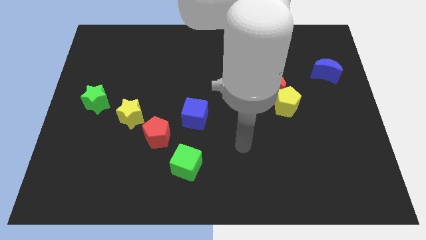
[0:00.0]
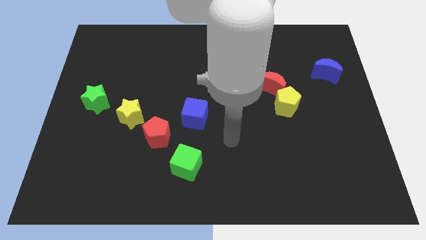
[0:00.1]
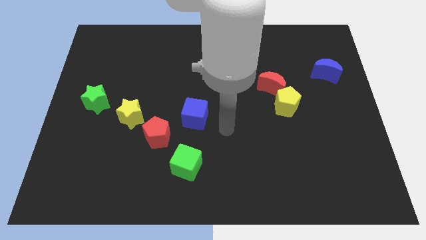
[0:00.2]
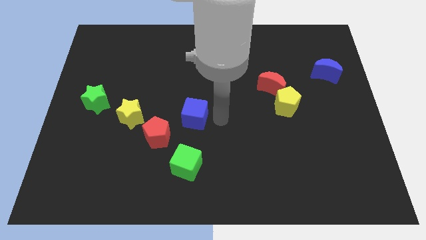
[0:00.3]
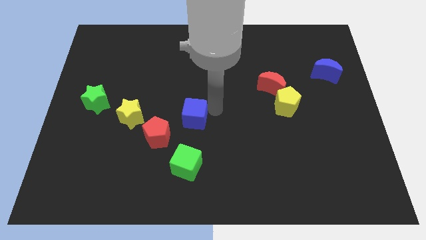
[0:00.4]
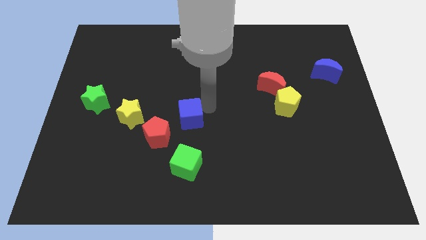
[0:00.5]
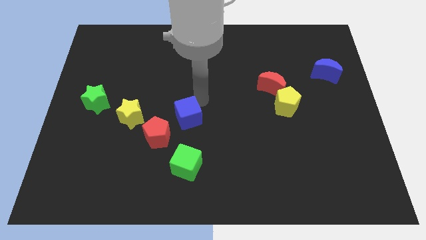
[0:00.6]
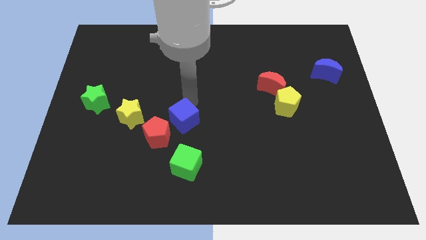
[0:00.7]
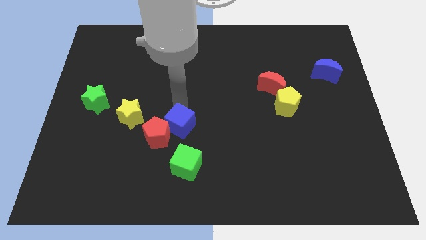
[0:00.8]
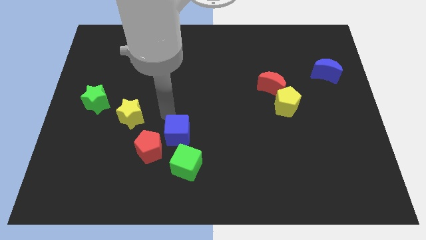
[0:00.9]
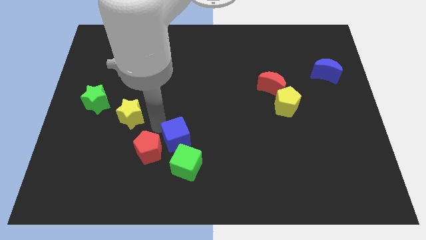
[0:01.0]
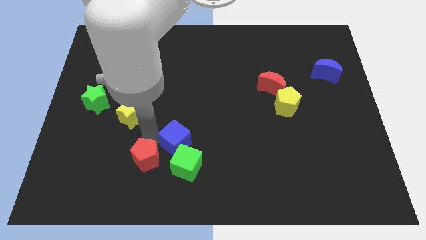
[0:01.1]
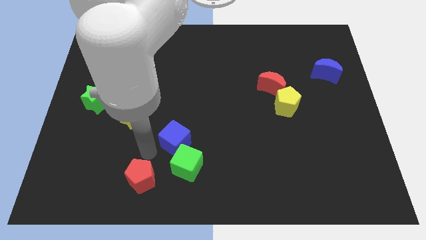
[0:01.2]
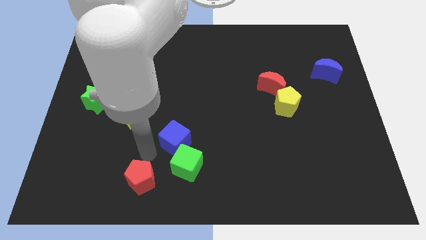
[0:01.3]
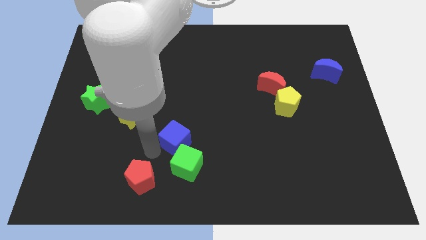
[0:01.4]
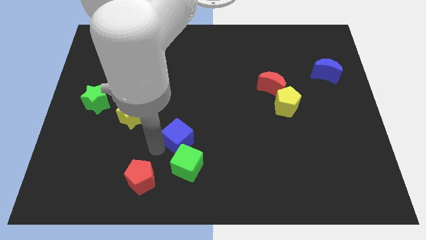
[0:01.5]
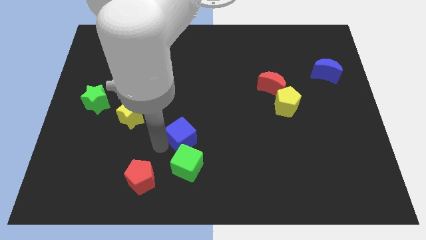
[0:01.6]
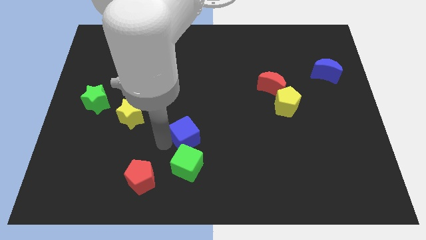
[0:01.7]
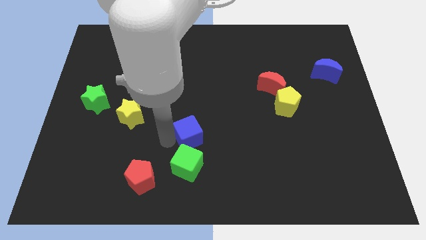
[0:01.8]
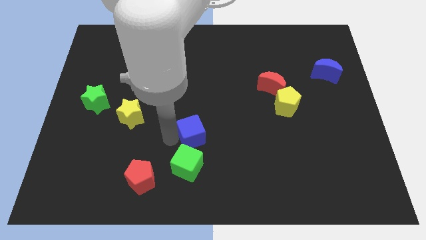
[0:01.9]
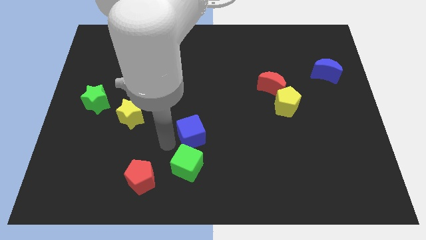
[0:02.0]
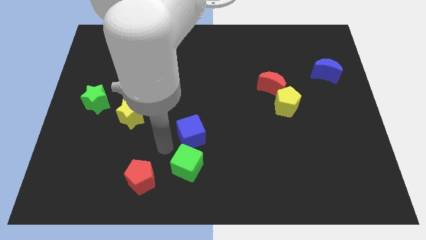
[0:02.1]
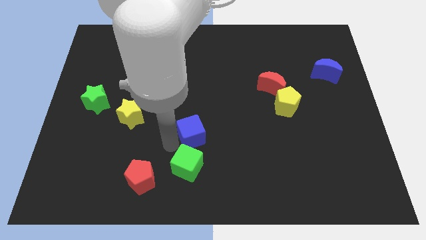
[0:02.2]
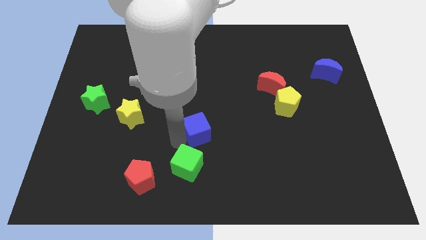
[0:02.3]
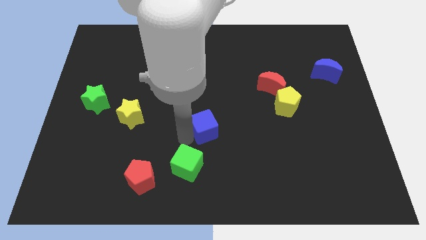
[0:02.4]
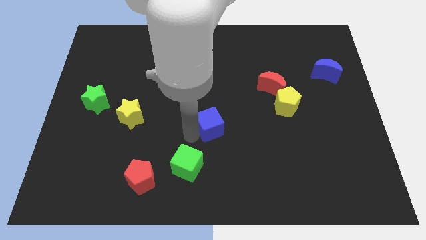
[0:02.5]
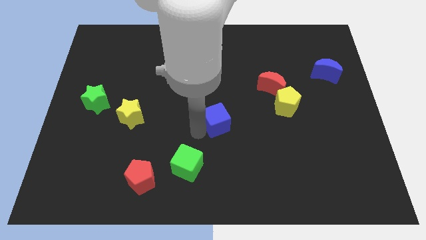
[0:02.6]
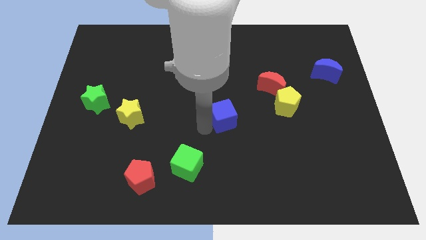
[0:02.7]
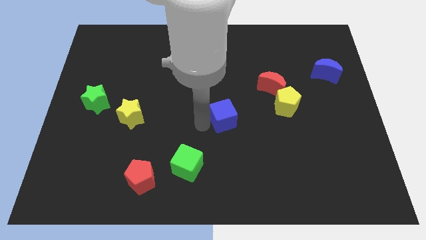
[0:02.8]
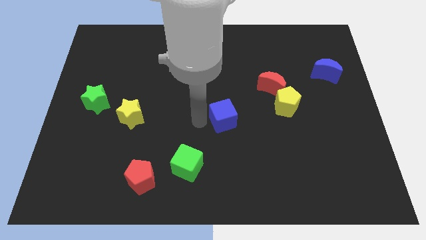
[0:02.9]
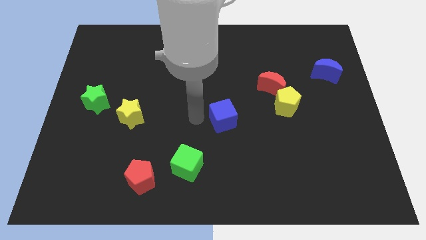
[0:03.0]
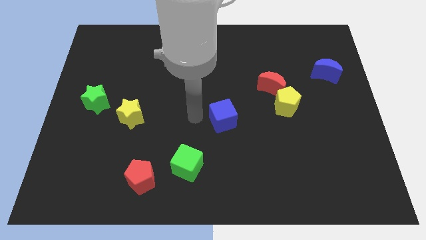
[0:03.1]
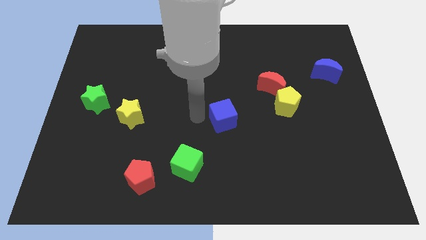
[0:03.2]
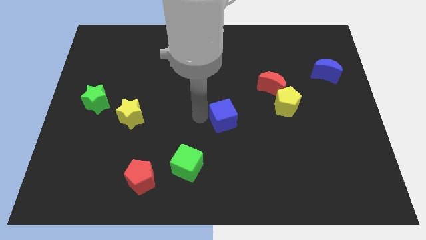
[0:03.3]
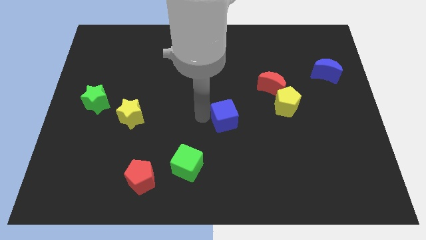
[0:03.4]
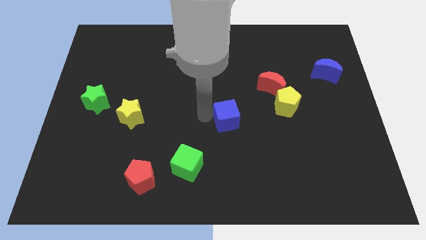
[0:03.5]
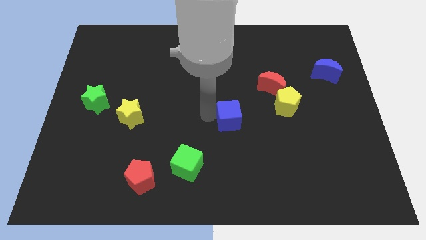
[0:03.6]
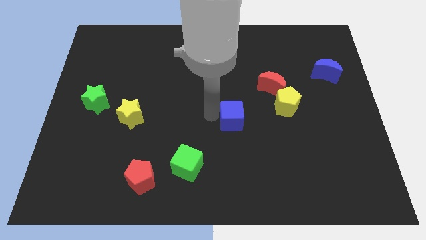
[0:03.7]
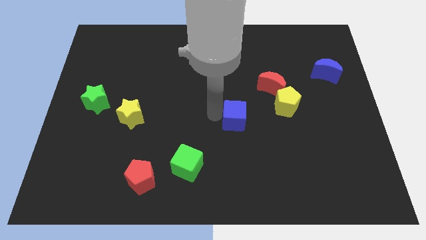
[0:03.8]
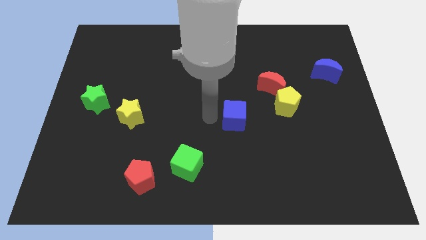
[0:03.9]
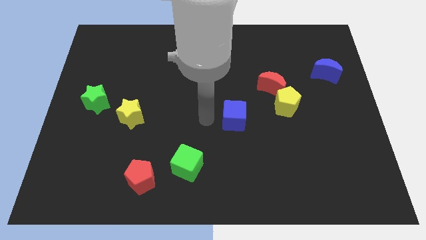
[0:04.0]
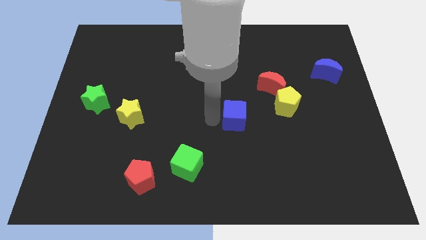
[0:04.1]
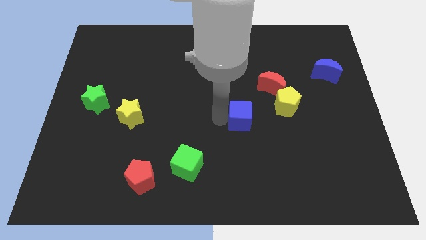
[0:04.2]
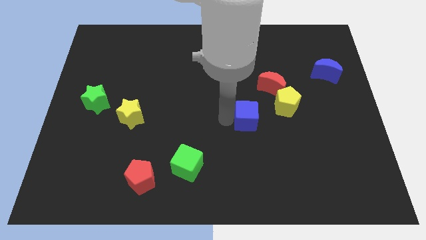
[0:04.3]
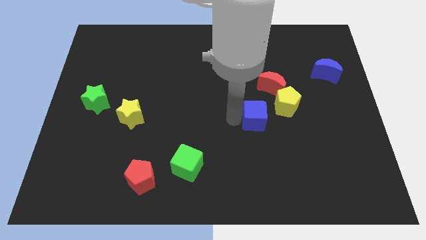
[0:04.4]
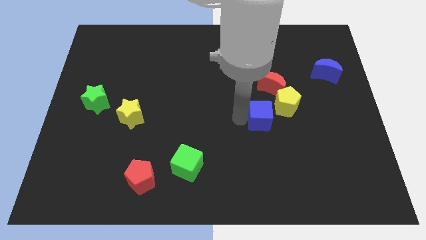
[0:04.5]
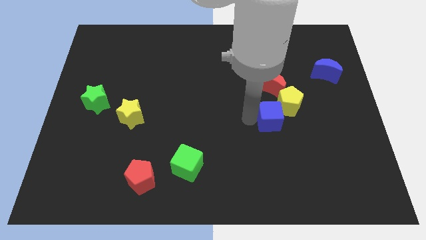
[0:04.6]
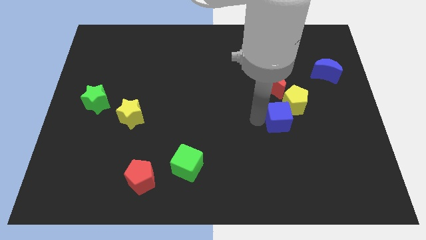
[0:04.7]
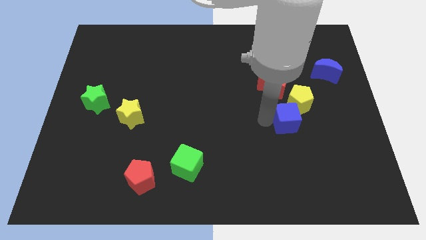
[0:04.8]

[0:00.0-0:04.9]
move the blue cube to the right

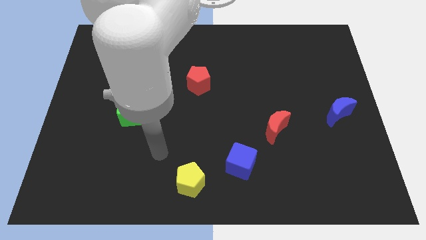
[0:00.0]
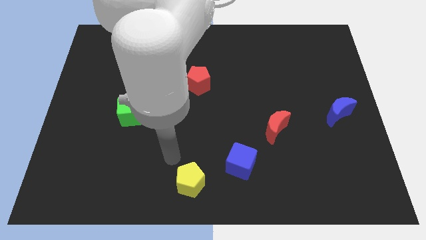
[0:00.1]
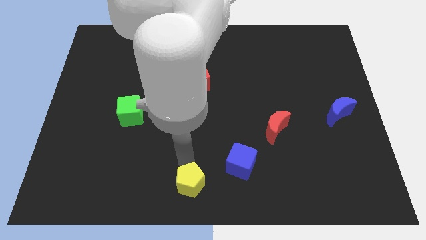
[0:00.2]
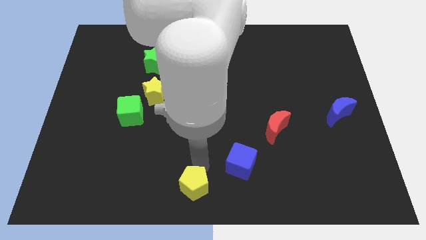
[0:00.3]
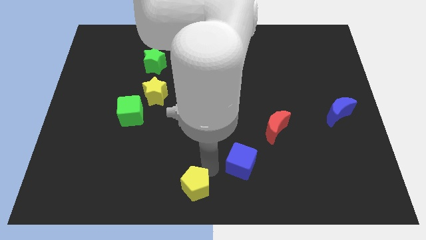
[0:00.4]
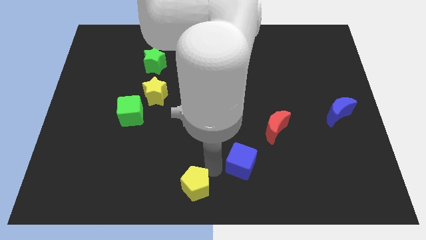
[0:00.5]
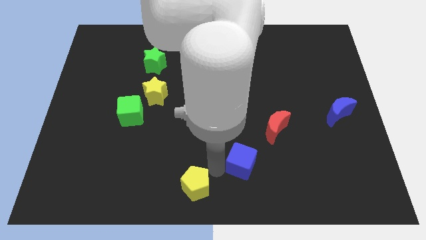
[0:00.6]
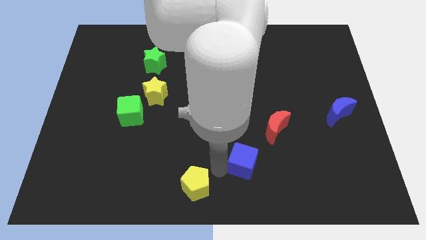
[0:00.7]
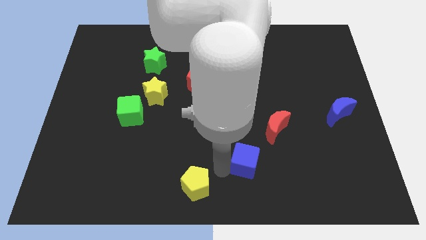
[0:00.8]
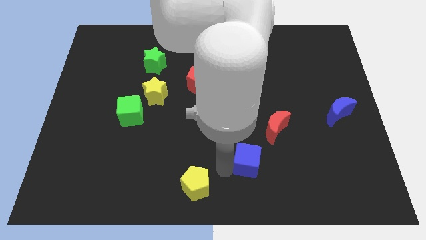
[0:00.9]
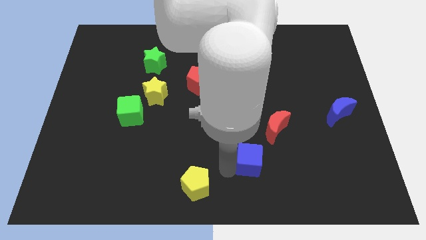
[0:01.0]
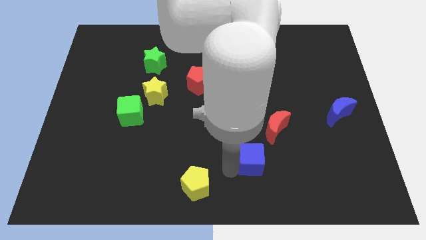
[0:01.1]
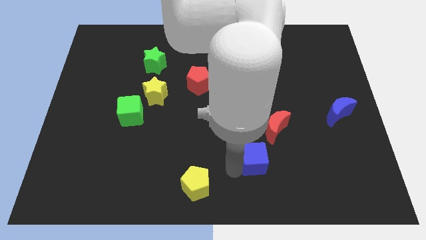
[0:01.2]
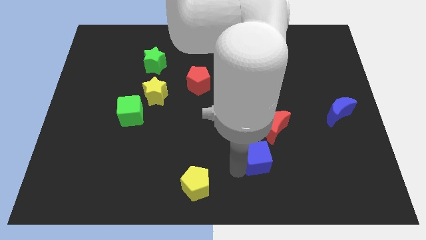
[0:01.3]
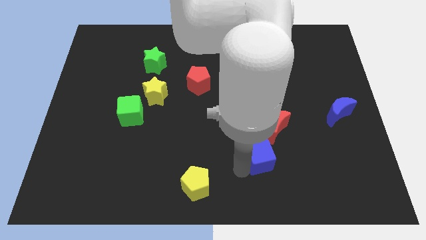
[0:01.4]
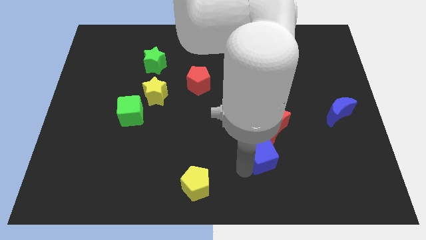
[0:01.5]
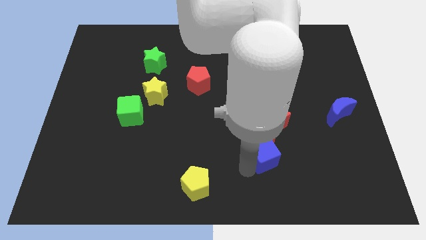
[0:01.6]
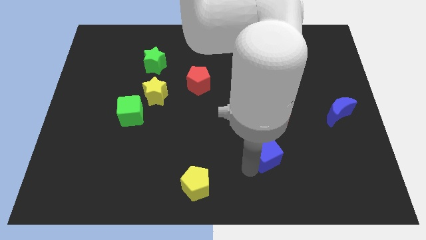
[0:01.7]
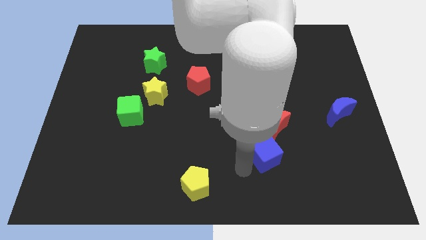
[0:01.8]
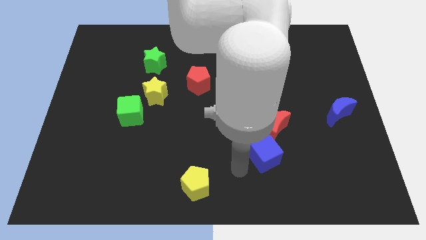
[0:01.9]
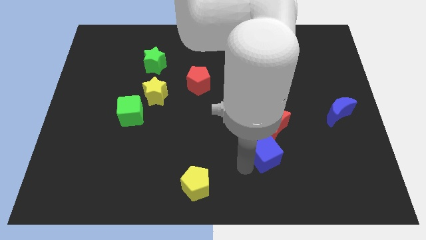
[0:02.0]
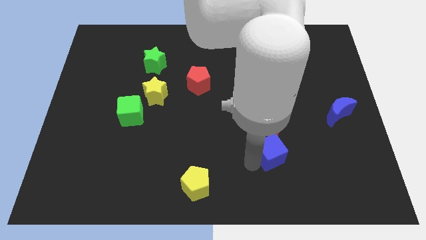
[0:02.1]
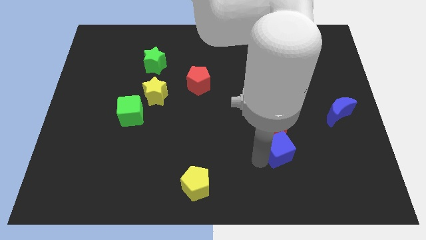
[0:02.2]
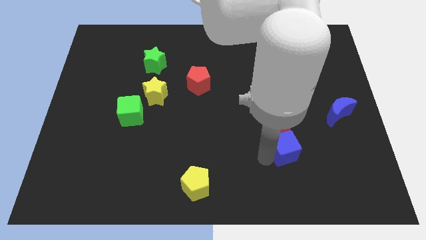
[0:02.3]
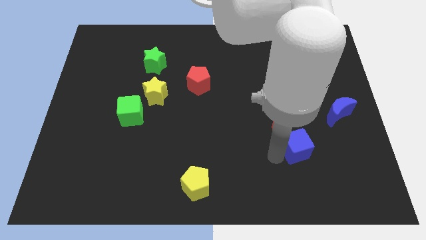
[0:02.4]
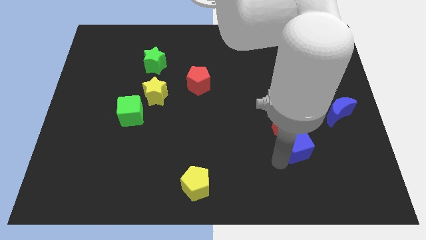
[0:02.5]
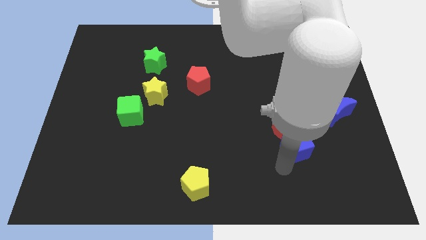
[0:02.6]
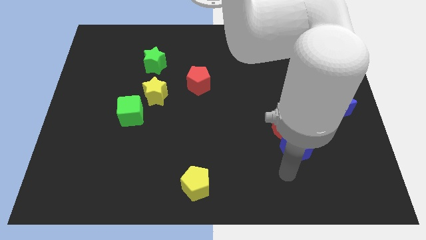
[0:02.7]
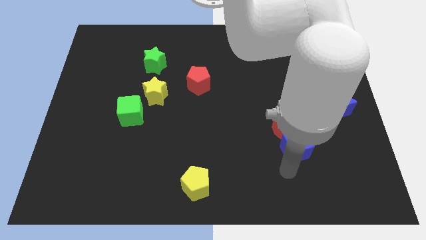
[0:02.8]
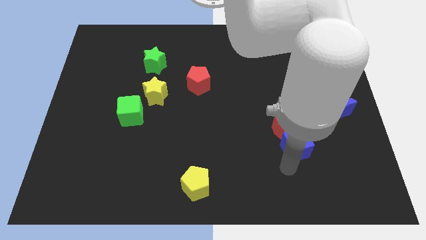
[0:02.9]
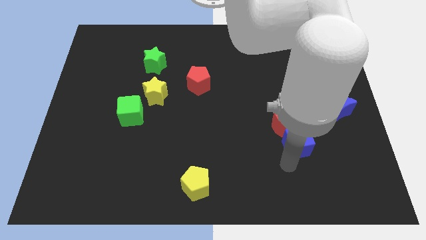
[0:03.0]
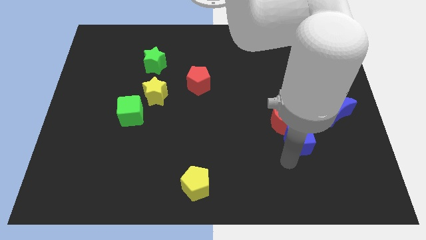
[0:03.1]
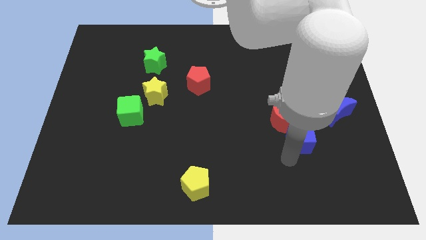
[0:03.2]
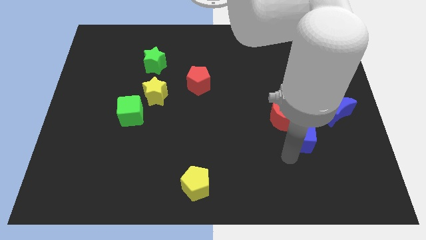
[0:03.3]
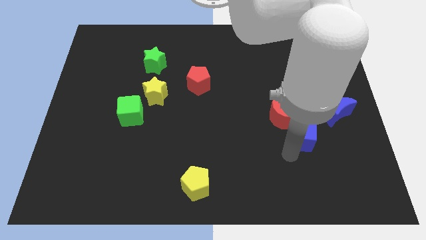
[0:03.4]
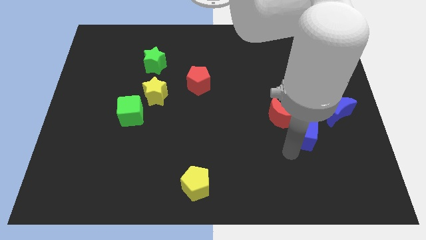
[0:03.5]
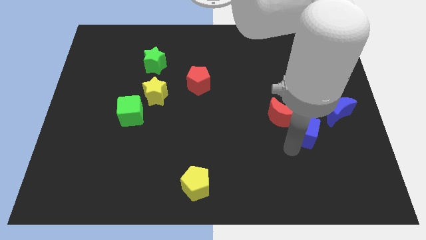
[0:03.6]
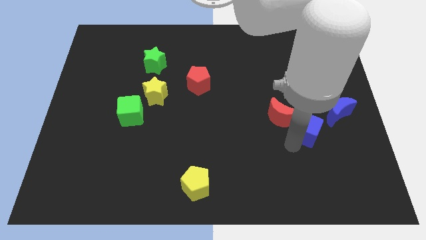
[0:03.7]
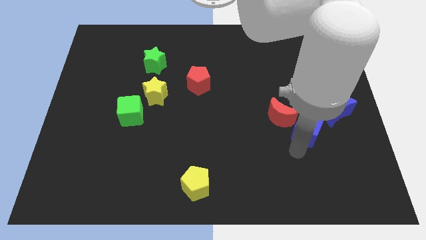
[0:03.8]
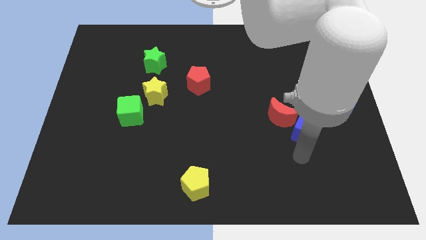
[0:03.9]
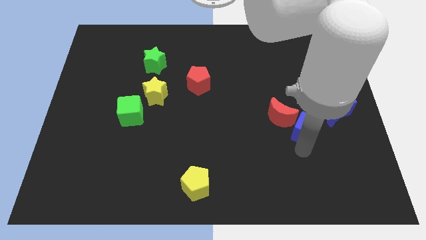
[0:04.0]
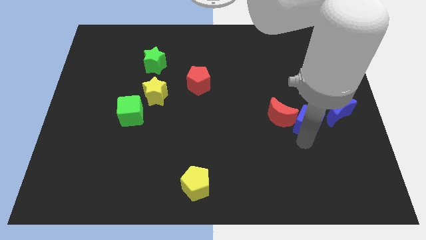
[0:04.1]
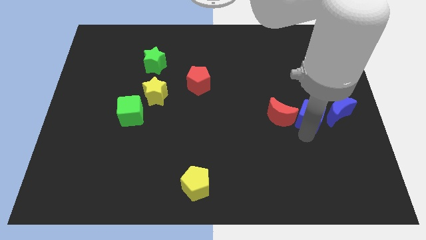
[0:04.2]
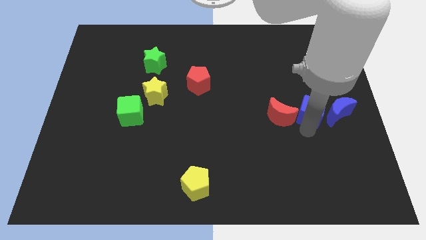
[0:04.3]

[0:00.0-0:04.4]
slide the blue cube up and to the right diagonally
